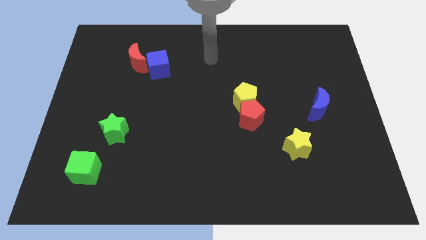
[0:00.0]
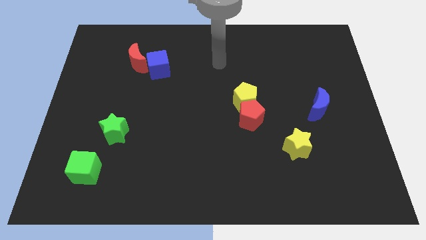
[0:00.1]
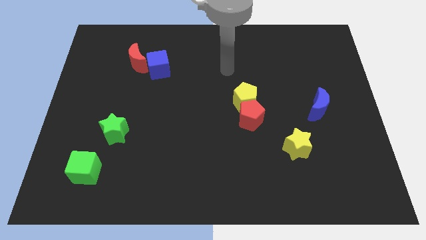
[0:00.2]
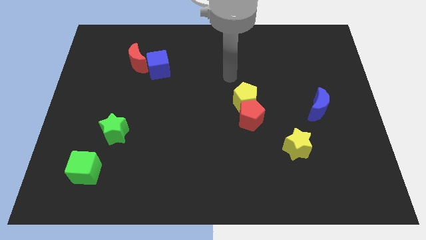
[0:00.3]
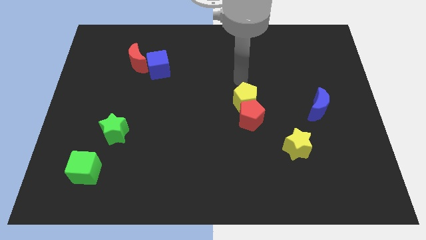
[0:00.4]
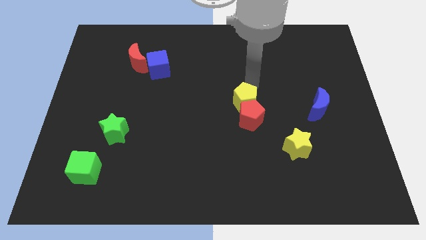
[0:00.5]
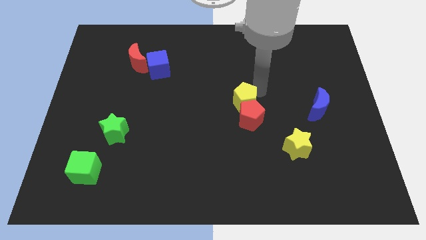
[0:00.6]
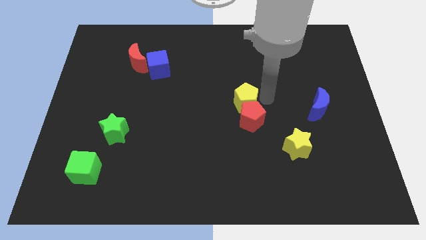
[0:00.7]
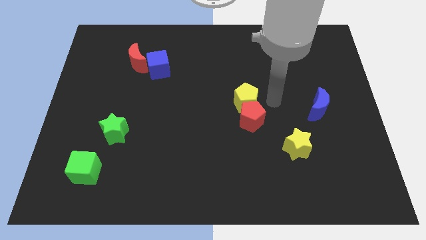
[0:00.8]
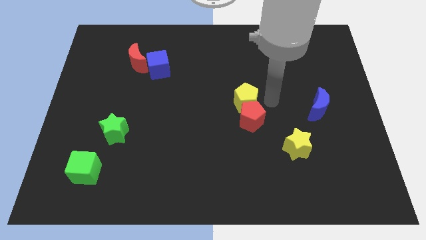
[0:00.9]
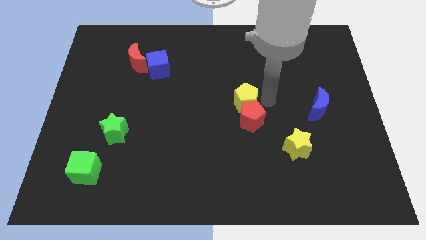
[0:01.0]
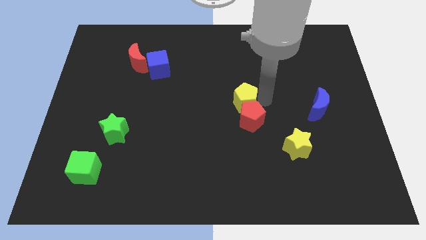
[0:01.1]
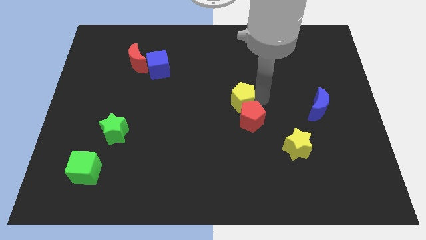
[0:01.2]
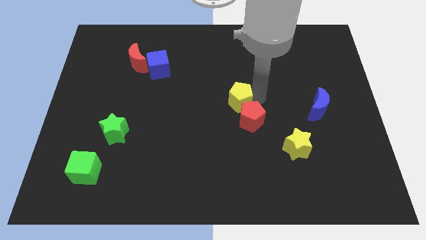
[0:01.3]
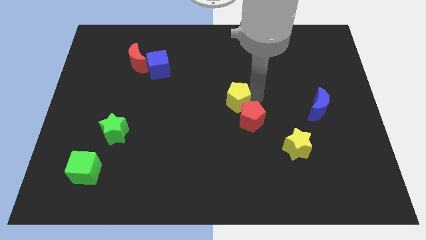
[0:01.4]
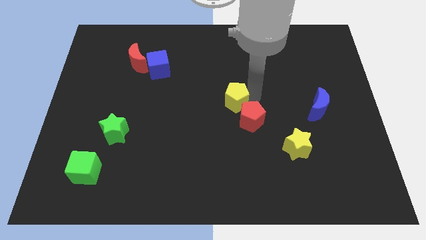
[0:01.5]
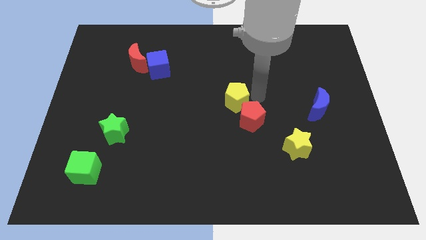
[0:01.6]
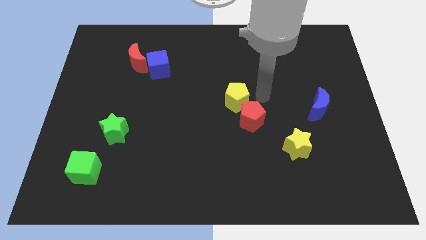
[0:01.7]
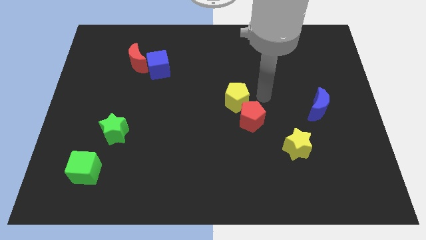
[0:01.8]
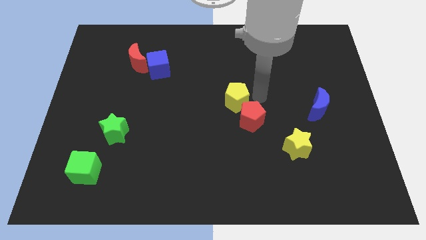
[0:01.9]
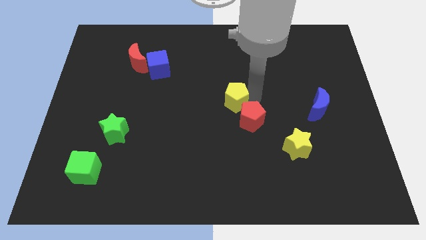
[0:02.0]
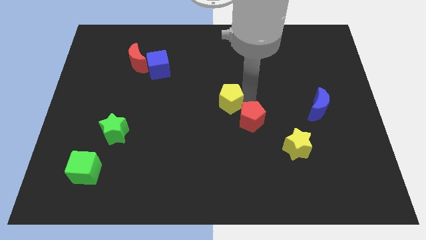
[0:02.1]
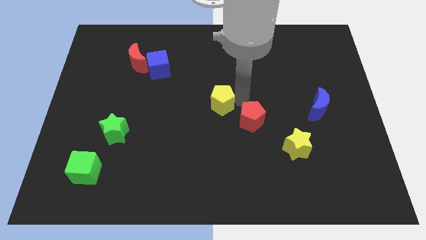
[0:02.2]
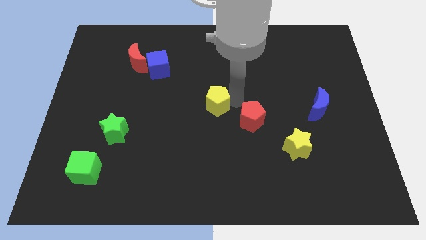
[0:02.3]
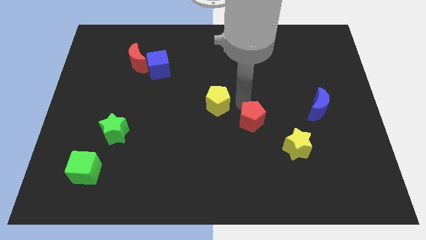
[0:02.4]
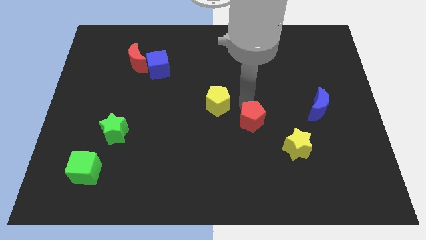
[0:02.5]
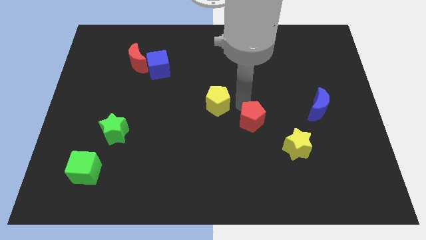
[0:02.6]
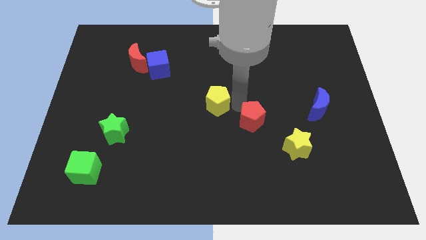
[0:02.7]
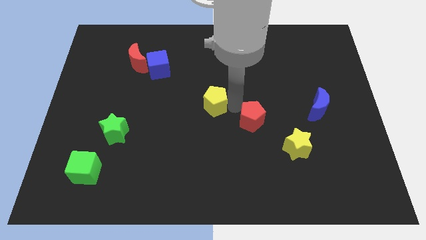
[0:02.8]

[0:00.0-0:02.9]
slide the yellow pentagon a little to the left

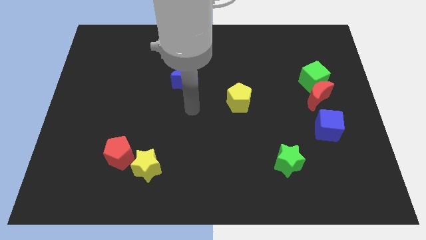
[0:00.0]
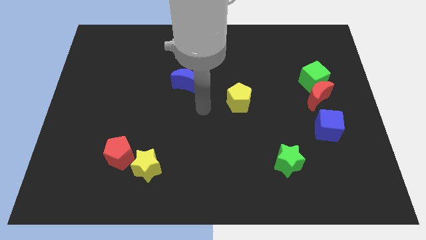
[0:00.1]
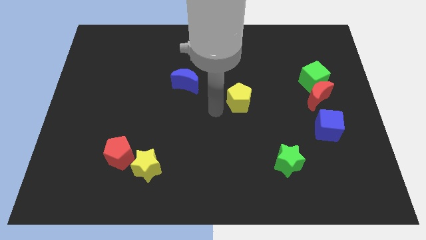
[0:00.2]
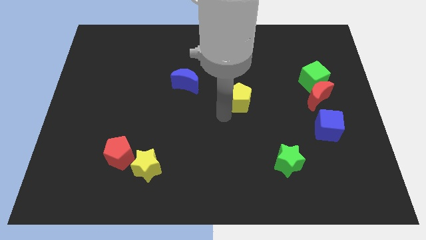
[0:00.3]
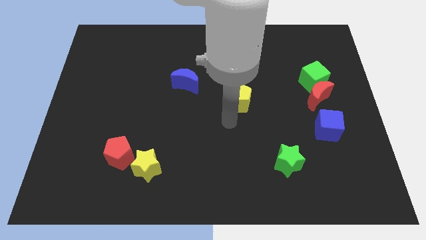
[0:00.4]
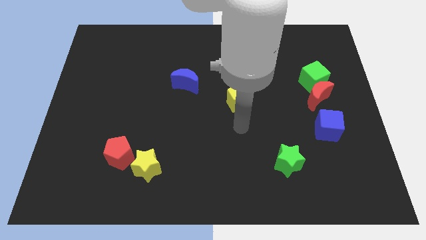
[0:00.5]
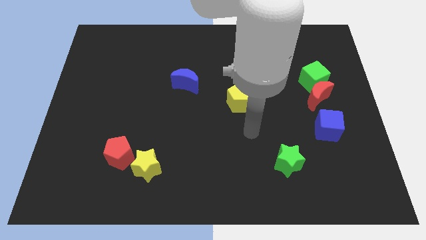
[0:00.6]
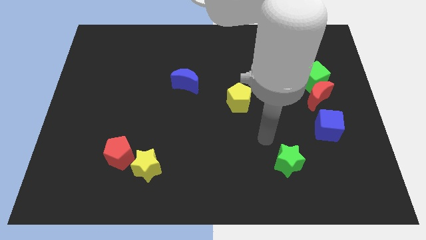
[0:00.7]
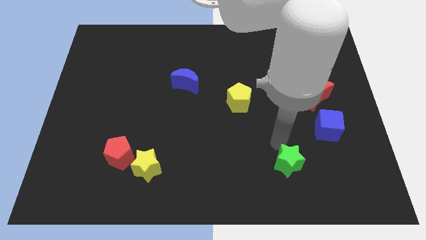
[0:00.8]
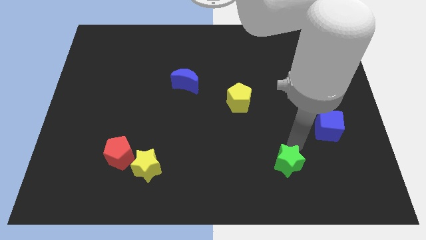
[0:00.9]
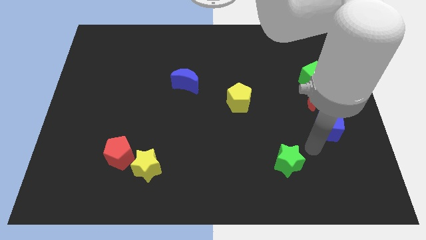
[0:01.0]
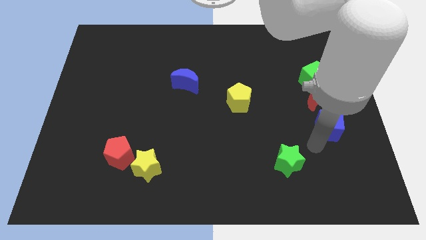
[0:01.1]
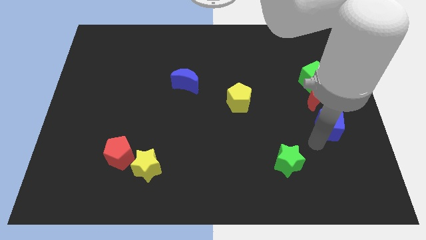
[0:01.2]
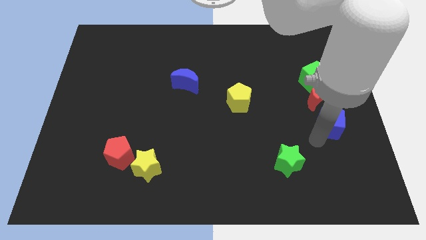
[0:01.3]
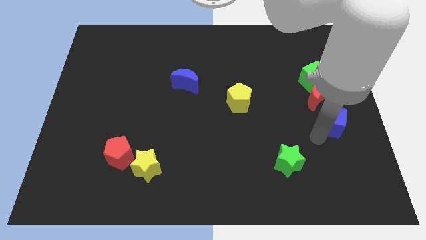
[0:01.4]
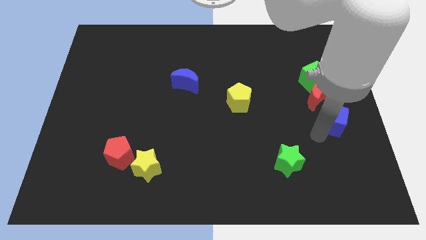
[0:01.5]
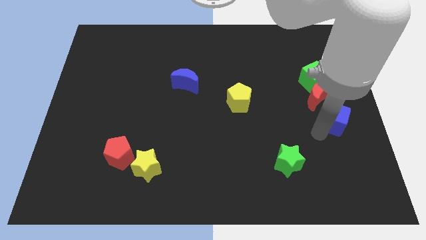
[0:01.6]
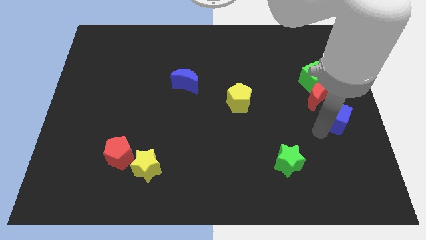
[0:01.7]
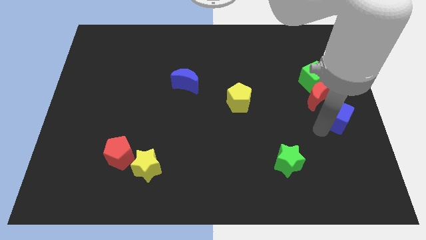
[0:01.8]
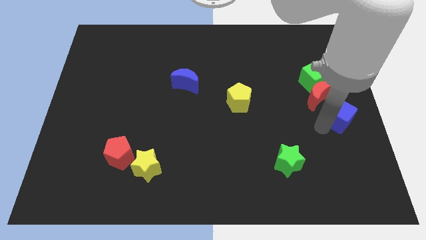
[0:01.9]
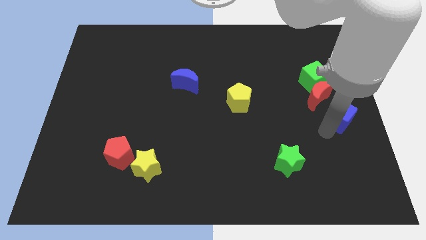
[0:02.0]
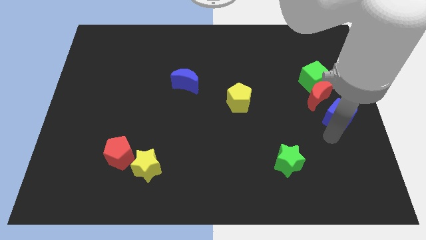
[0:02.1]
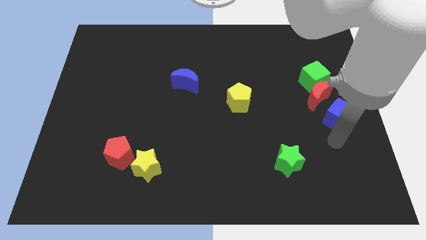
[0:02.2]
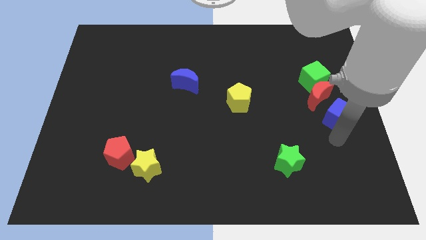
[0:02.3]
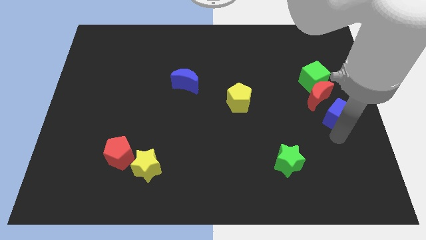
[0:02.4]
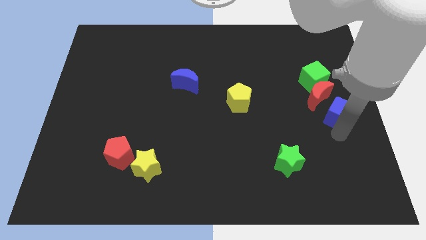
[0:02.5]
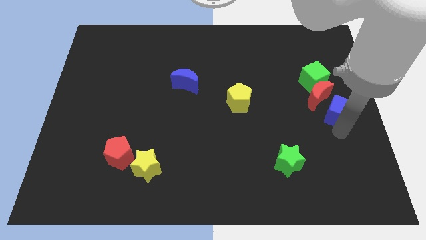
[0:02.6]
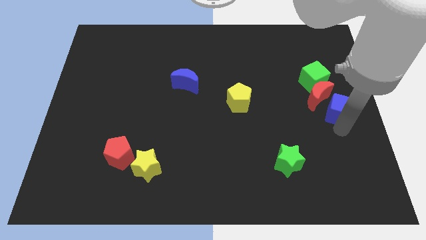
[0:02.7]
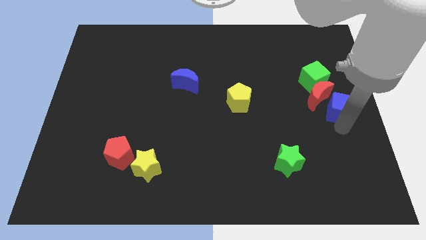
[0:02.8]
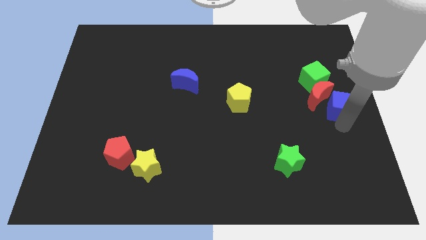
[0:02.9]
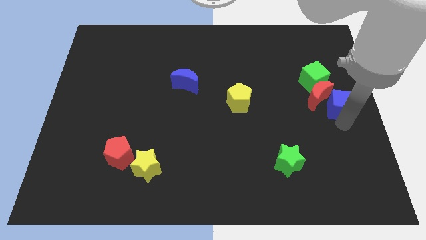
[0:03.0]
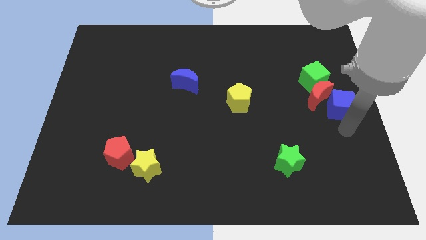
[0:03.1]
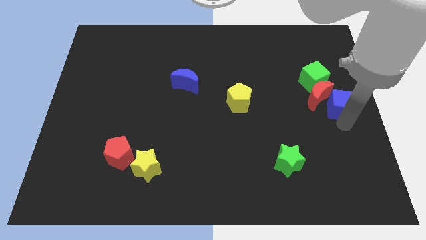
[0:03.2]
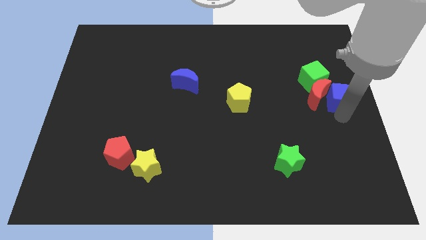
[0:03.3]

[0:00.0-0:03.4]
push the blue cube upwards slightly

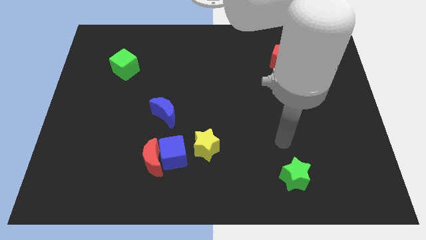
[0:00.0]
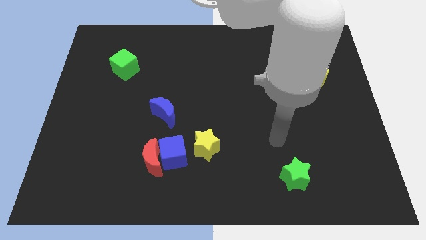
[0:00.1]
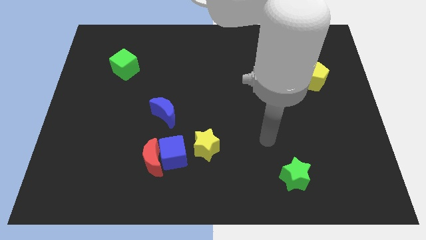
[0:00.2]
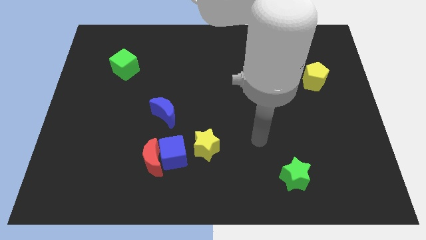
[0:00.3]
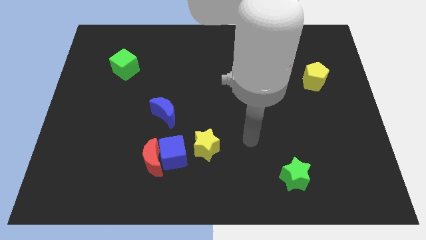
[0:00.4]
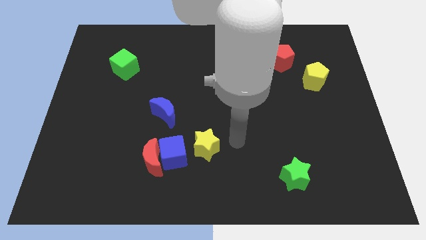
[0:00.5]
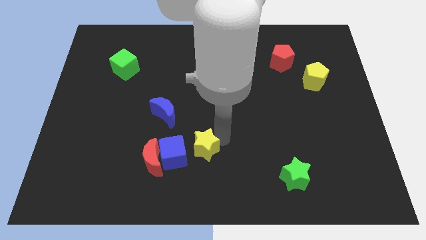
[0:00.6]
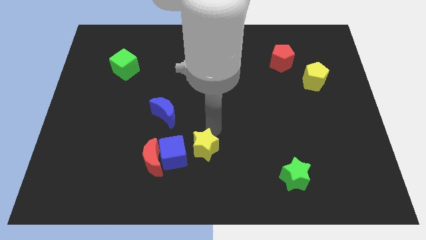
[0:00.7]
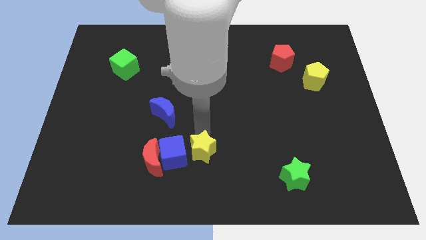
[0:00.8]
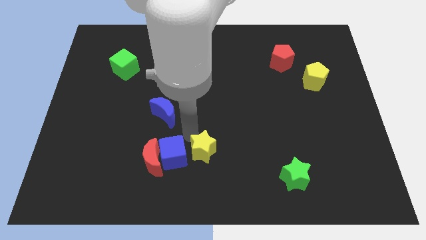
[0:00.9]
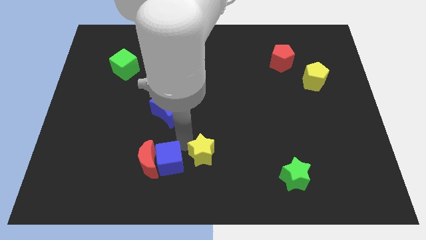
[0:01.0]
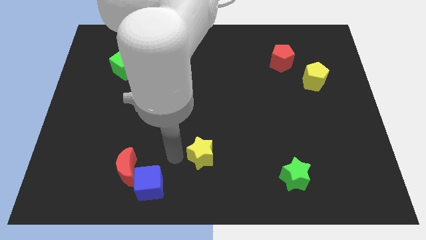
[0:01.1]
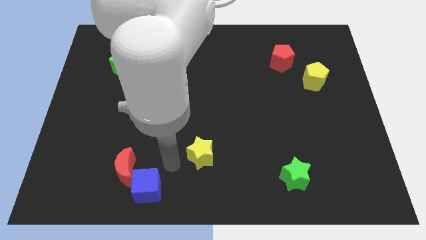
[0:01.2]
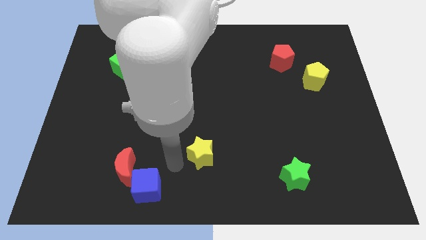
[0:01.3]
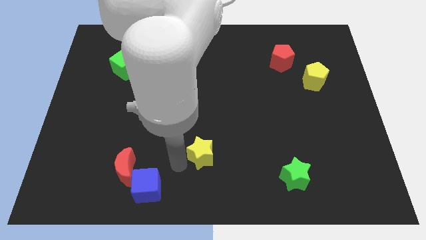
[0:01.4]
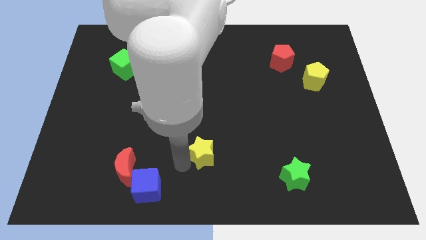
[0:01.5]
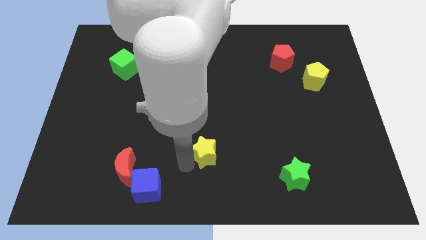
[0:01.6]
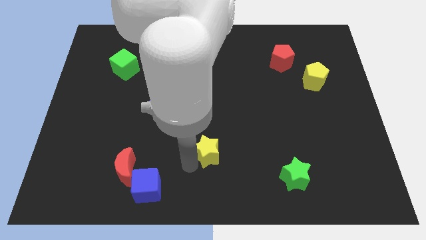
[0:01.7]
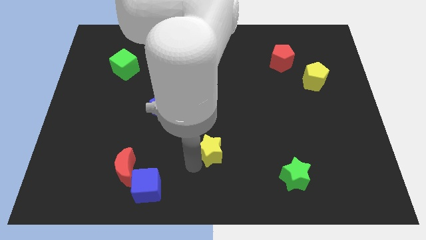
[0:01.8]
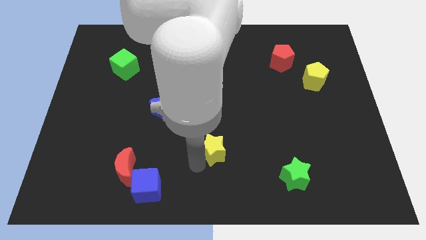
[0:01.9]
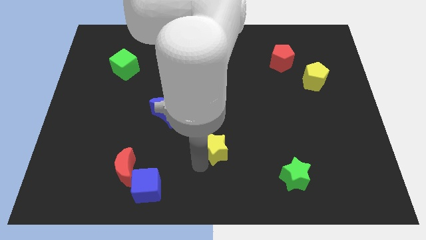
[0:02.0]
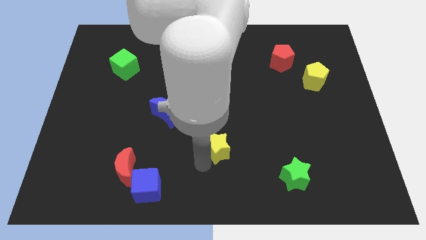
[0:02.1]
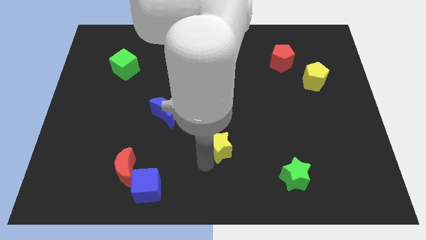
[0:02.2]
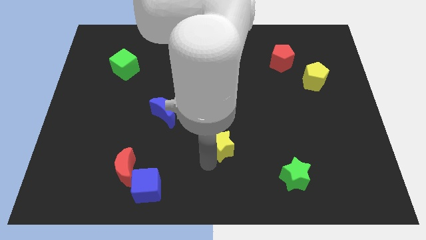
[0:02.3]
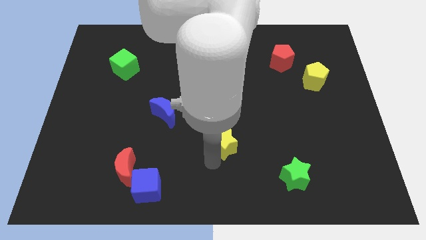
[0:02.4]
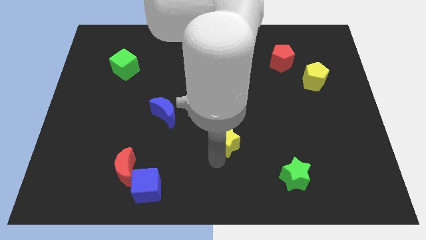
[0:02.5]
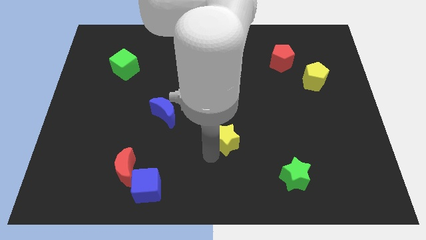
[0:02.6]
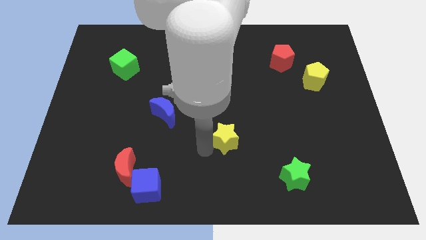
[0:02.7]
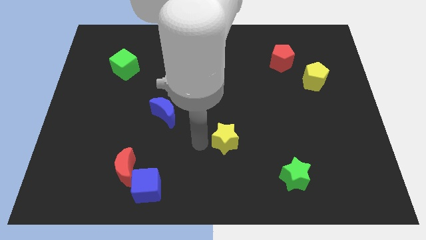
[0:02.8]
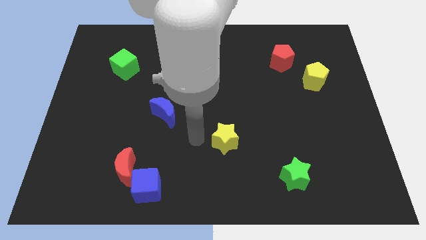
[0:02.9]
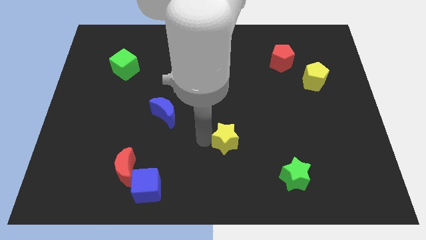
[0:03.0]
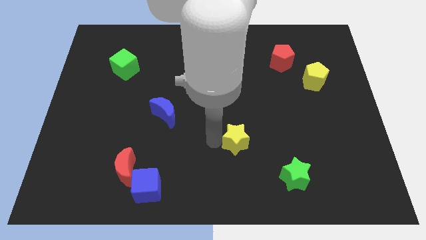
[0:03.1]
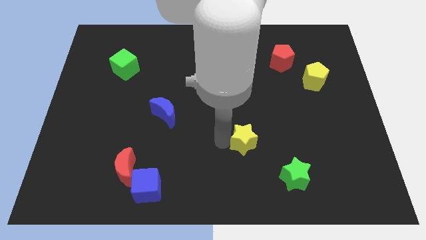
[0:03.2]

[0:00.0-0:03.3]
push the yellow star to the right a little
